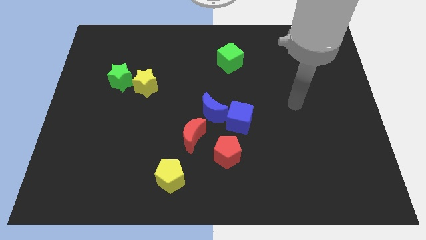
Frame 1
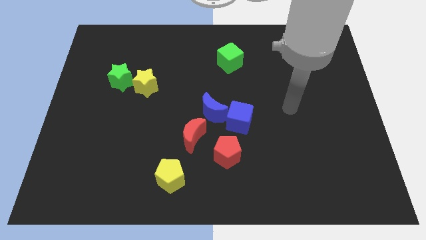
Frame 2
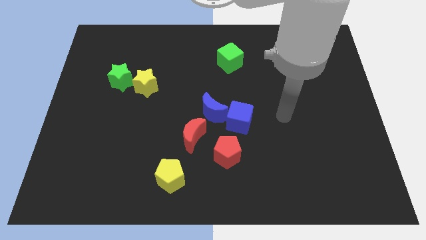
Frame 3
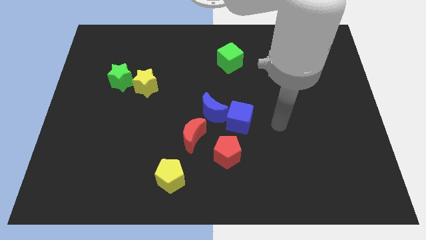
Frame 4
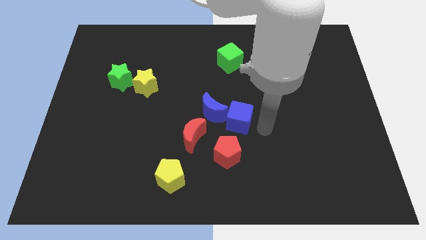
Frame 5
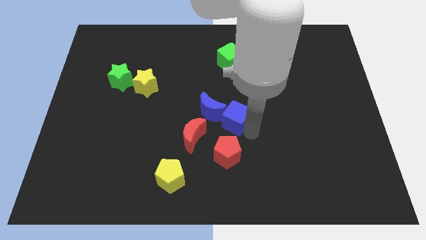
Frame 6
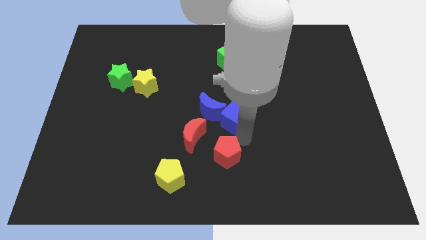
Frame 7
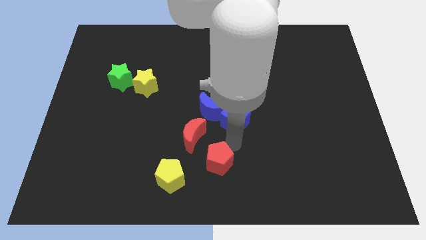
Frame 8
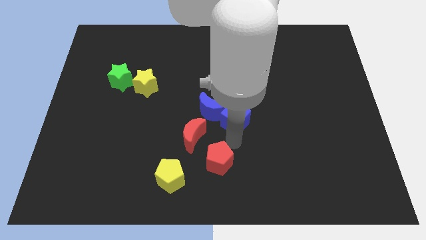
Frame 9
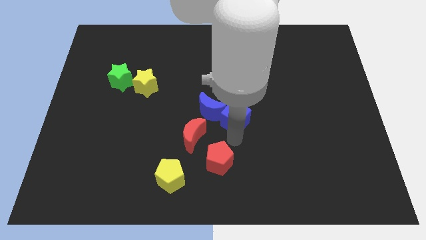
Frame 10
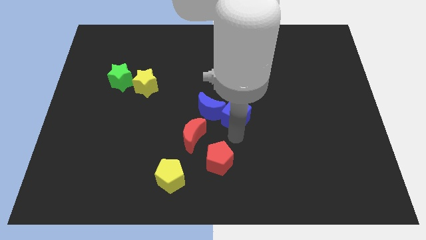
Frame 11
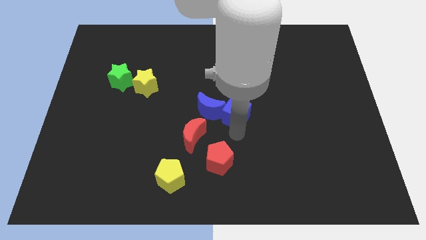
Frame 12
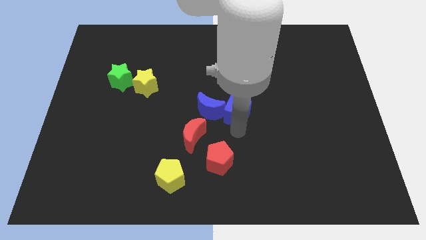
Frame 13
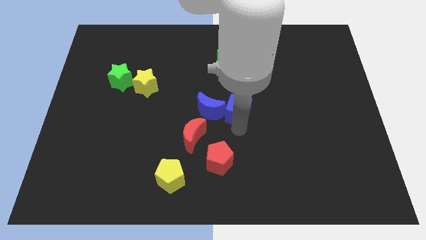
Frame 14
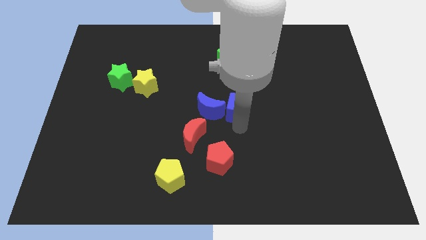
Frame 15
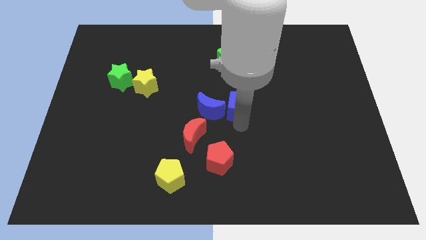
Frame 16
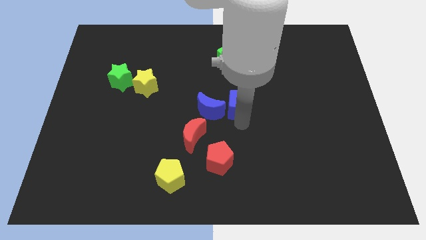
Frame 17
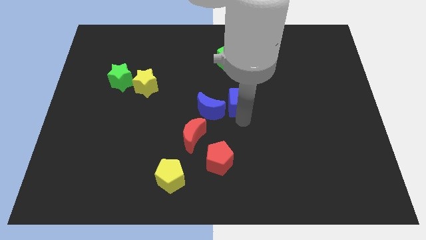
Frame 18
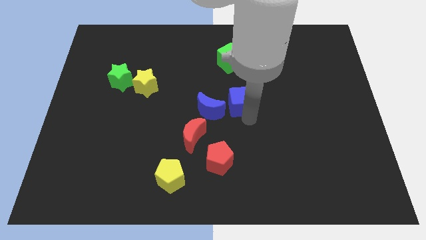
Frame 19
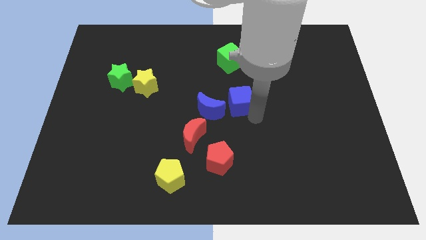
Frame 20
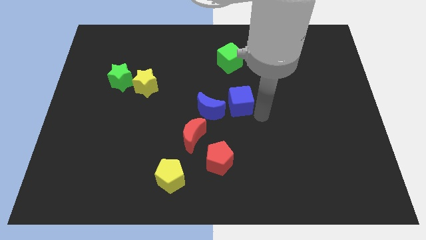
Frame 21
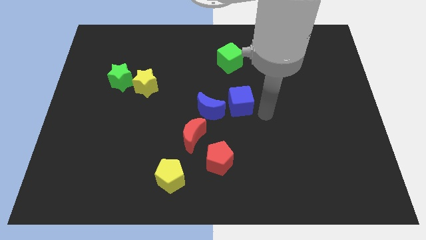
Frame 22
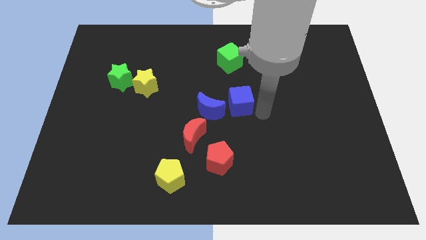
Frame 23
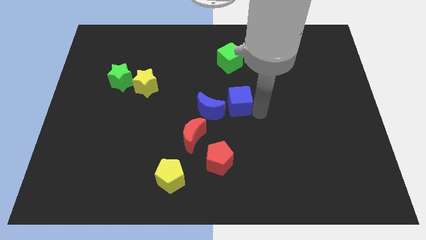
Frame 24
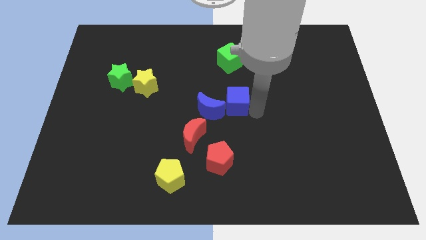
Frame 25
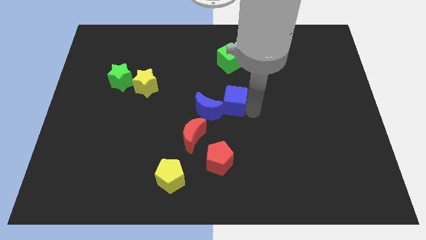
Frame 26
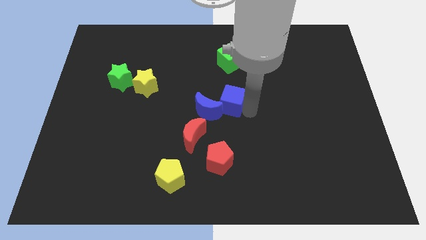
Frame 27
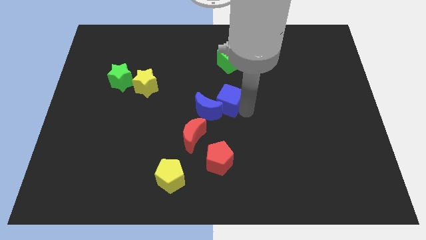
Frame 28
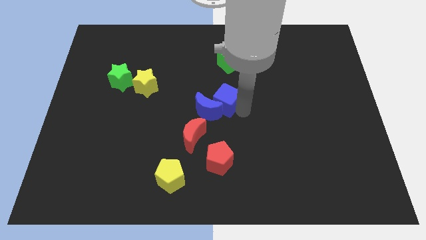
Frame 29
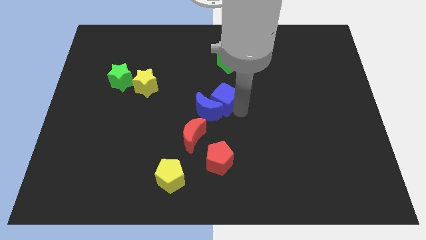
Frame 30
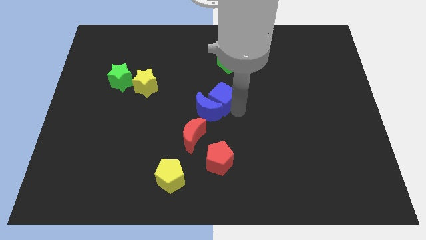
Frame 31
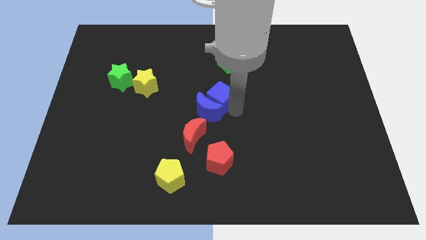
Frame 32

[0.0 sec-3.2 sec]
slide the blue cube a bit upwards and to the left diagonally

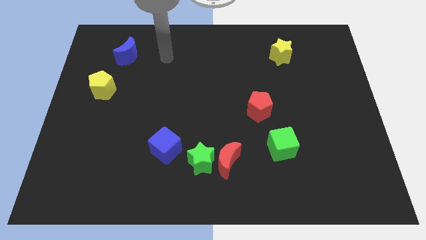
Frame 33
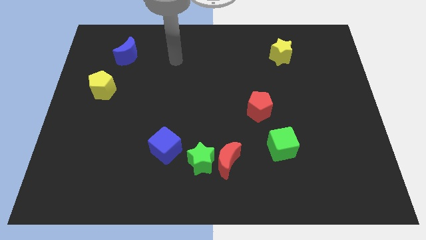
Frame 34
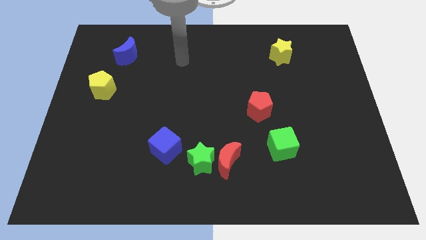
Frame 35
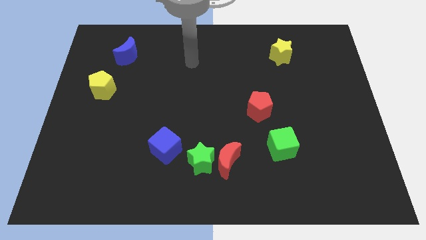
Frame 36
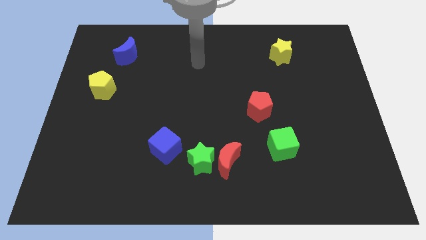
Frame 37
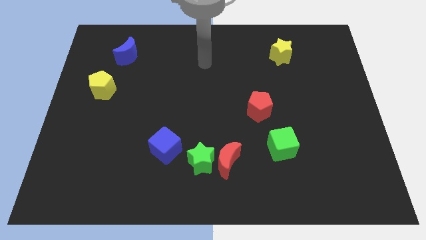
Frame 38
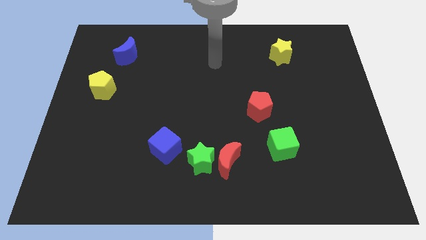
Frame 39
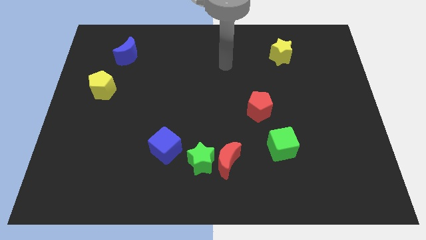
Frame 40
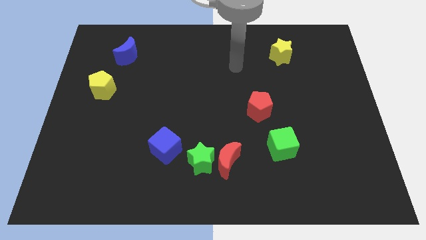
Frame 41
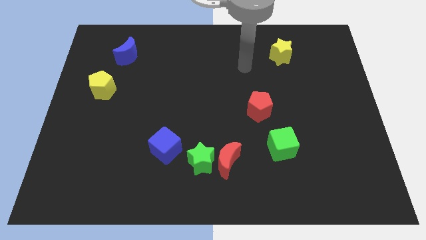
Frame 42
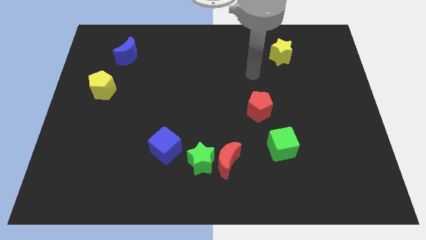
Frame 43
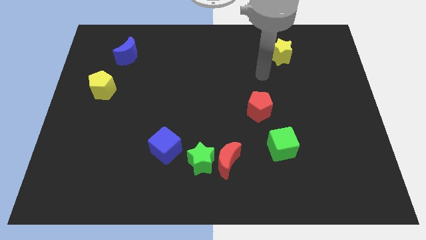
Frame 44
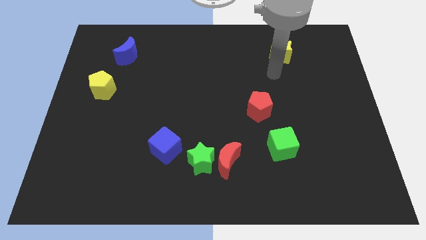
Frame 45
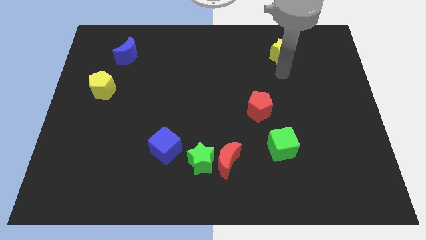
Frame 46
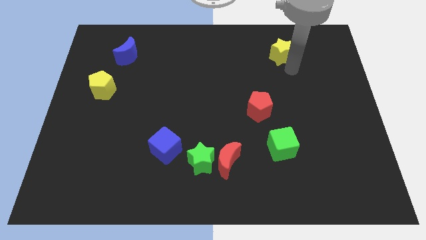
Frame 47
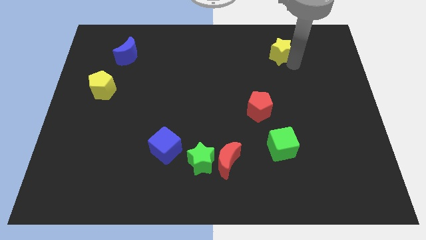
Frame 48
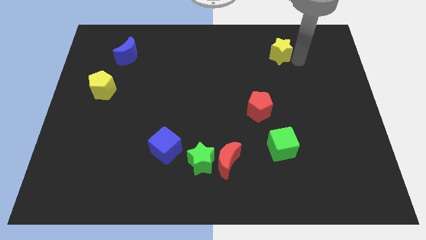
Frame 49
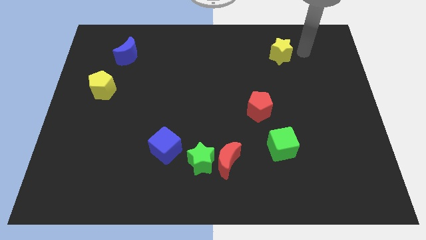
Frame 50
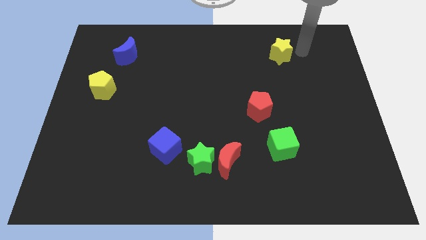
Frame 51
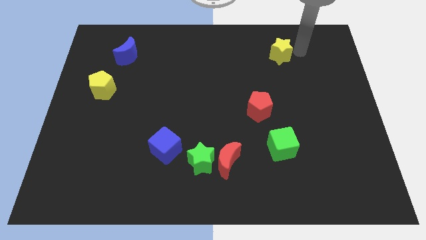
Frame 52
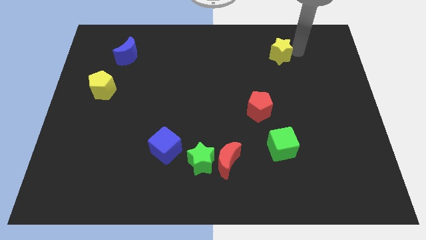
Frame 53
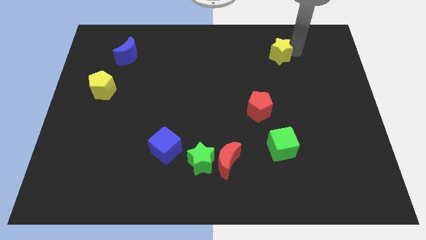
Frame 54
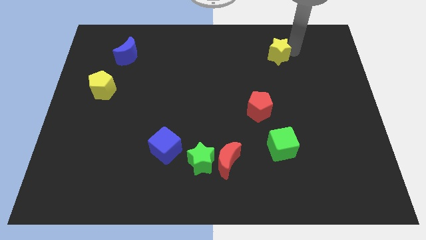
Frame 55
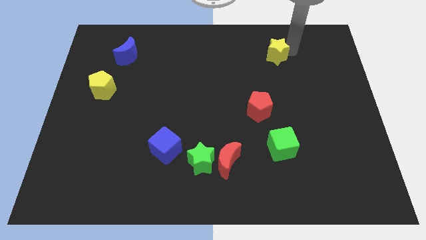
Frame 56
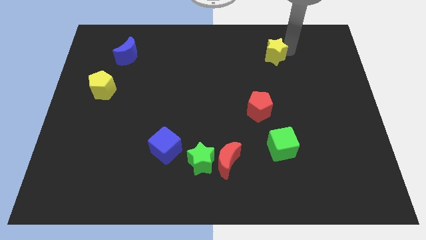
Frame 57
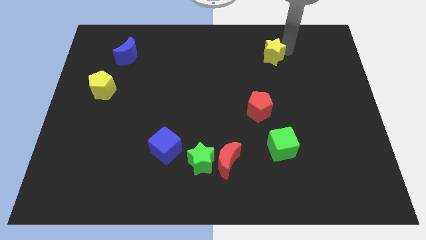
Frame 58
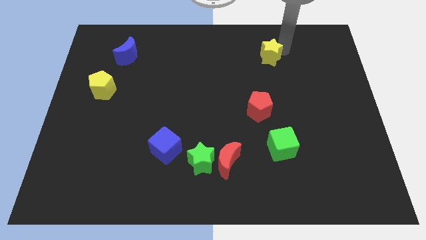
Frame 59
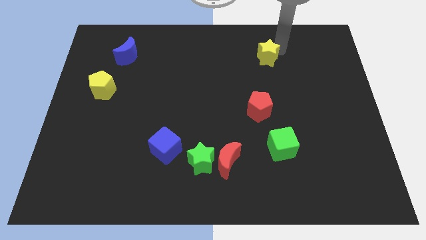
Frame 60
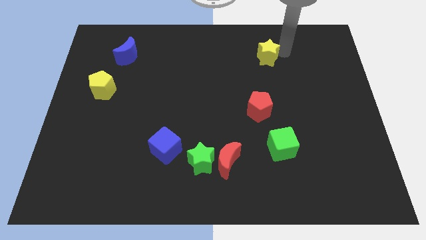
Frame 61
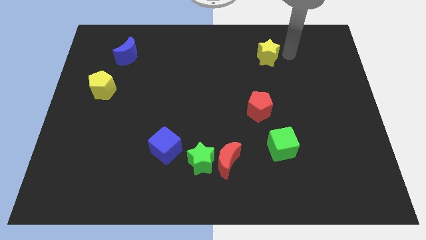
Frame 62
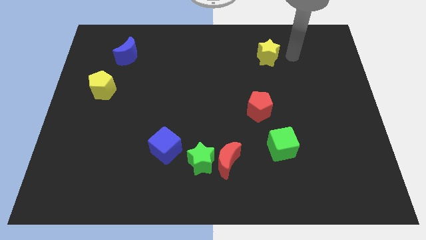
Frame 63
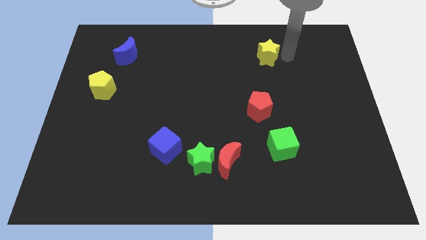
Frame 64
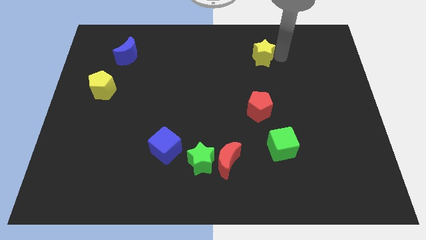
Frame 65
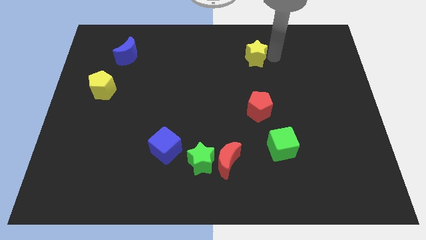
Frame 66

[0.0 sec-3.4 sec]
slightly move the yellow star left

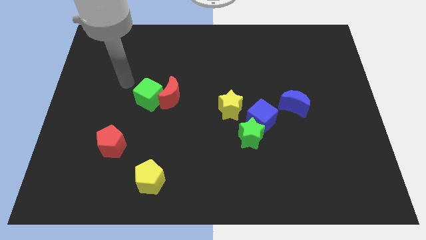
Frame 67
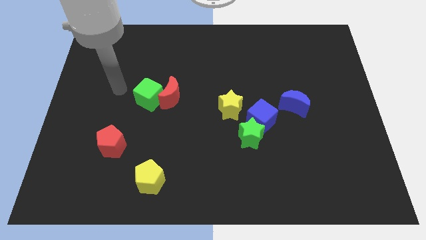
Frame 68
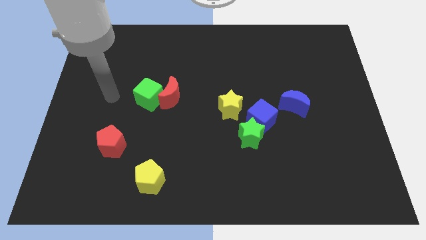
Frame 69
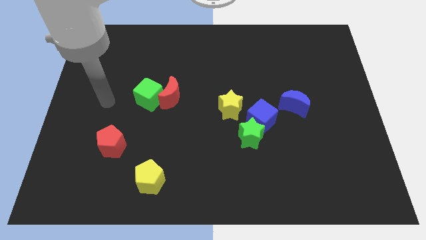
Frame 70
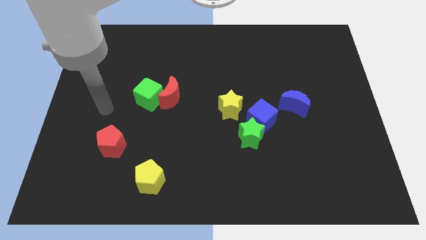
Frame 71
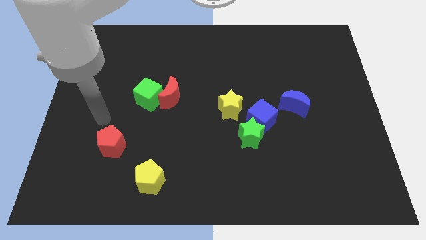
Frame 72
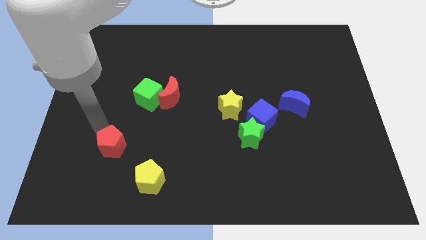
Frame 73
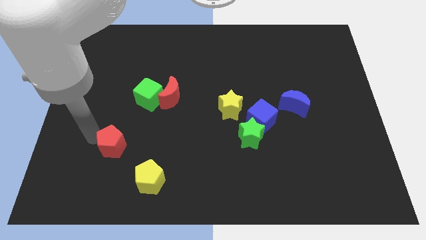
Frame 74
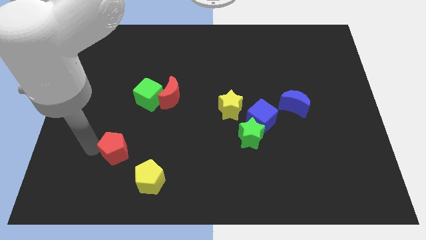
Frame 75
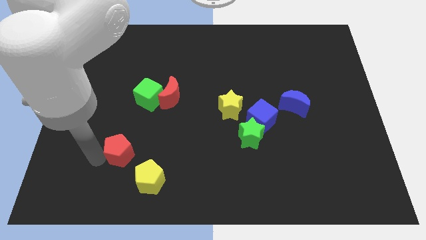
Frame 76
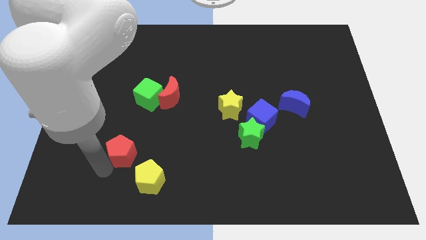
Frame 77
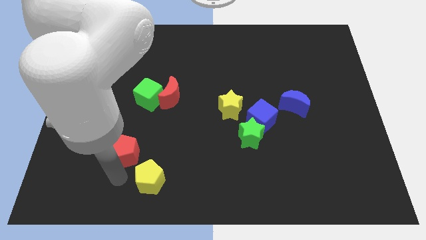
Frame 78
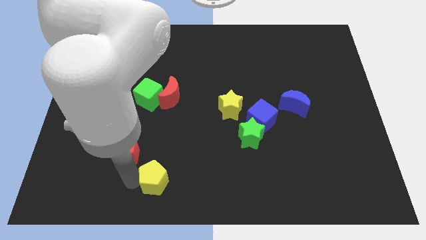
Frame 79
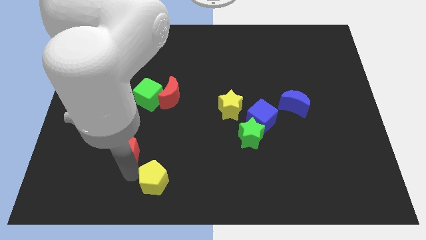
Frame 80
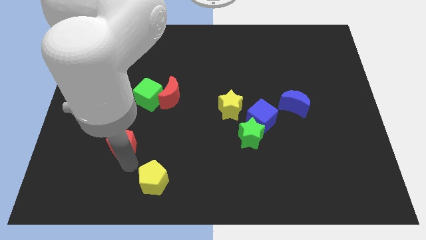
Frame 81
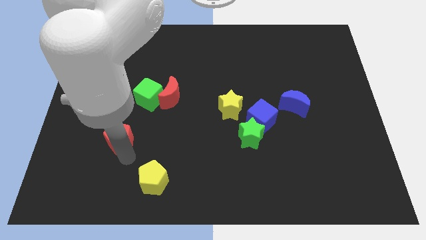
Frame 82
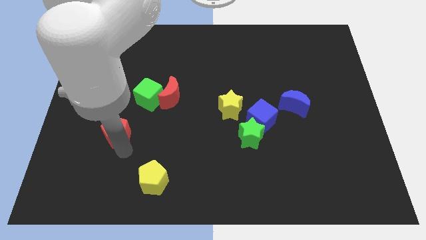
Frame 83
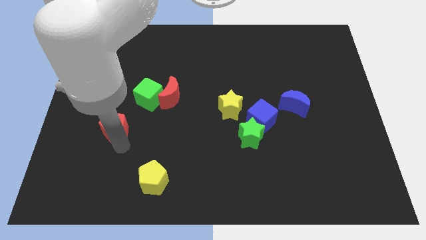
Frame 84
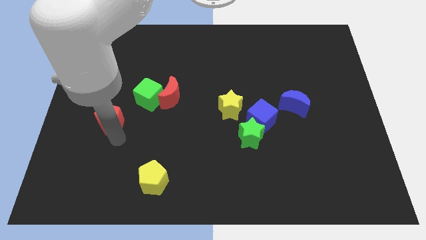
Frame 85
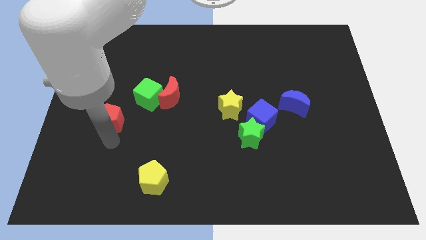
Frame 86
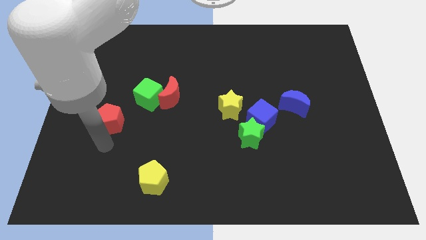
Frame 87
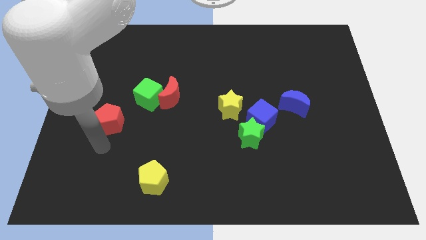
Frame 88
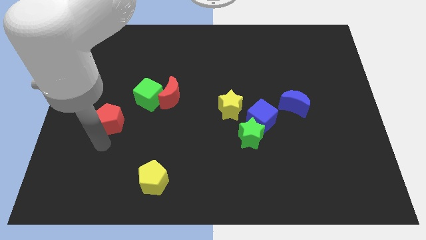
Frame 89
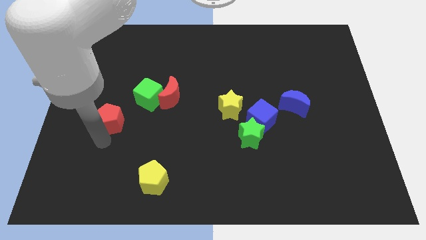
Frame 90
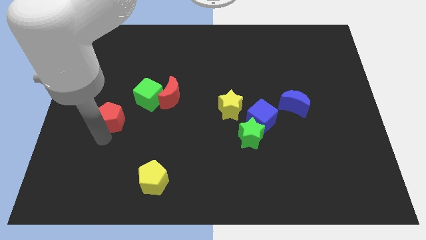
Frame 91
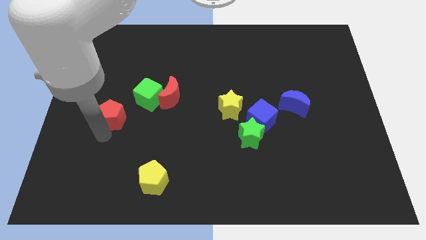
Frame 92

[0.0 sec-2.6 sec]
slightly move the red pentagon up
